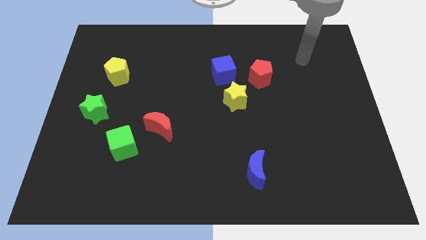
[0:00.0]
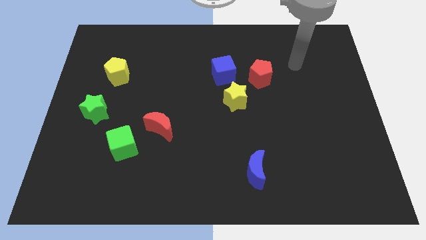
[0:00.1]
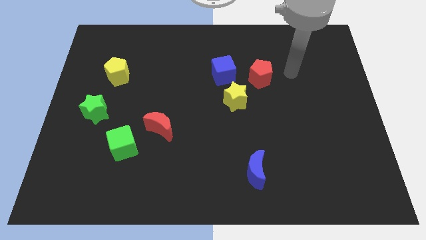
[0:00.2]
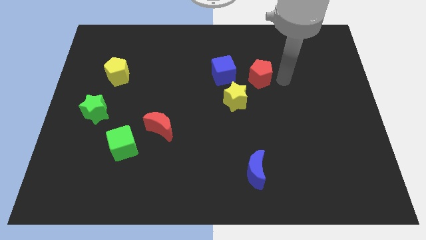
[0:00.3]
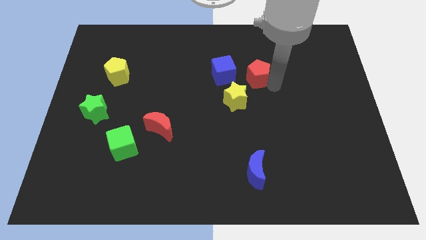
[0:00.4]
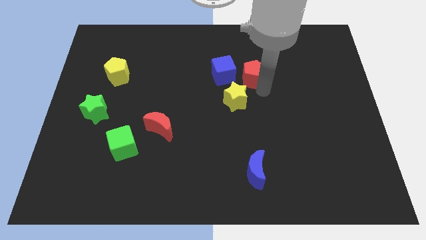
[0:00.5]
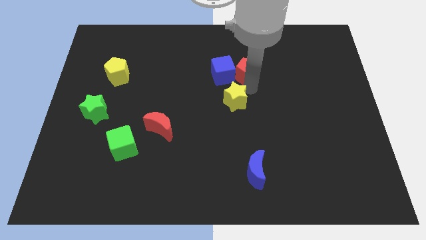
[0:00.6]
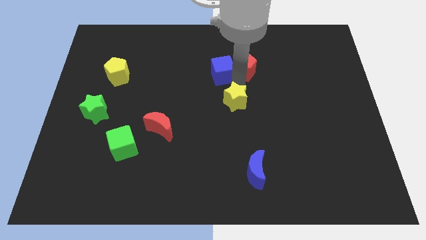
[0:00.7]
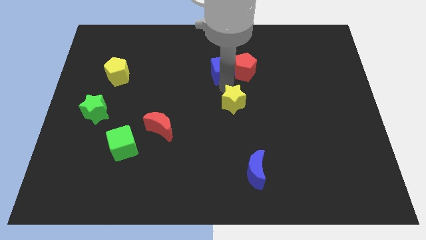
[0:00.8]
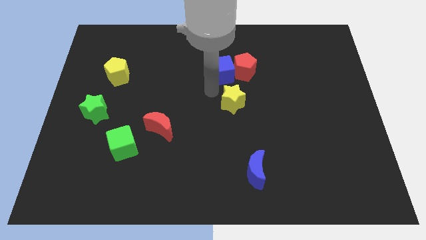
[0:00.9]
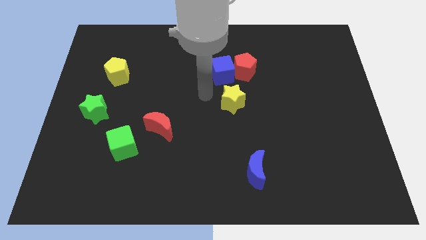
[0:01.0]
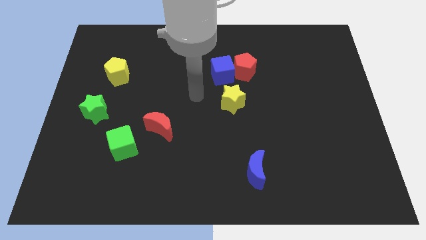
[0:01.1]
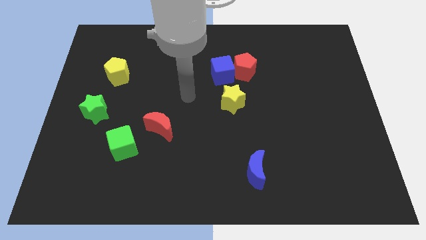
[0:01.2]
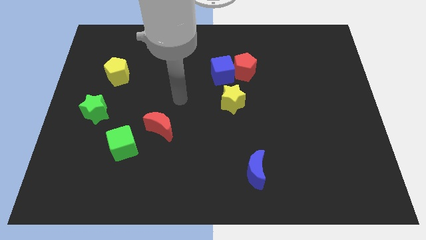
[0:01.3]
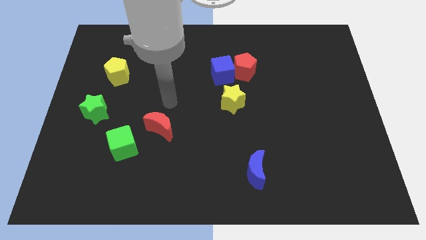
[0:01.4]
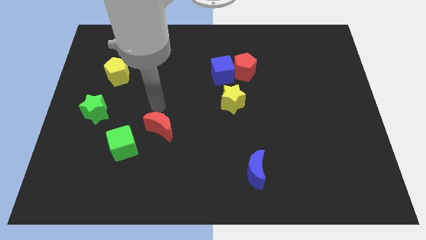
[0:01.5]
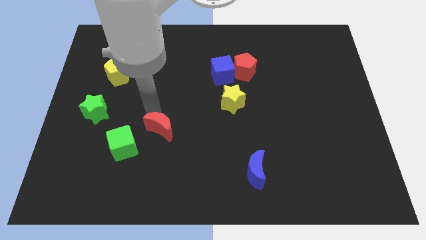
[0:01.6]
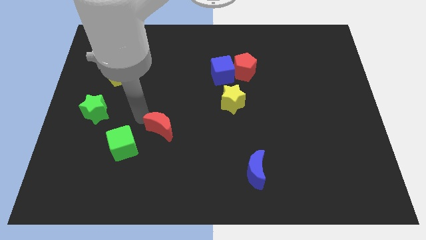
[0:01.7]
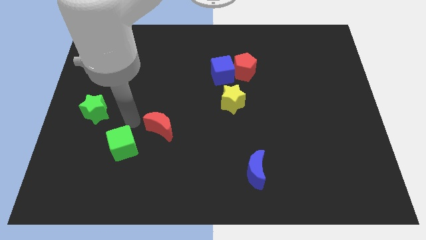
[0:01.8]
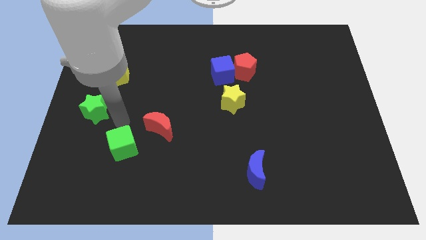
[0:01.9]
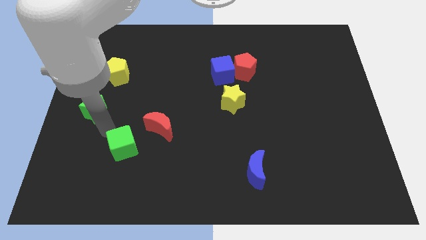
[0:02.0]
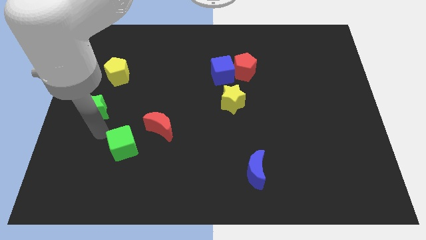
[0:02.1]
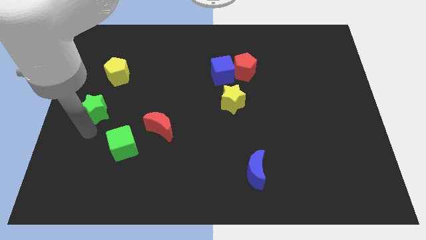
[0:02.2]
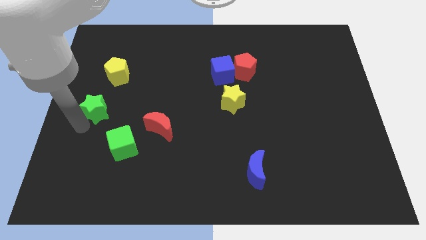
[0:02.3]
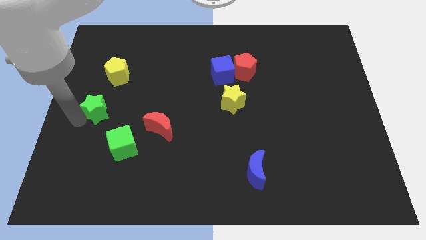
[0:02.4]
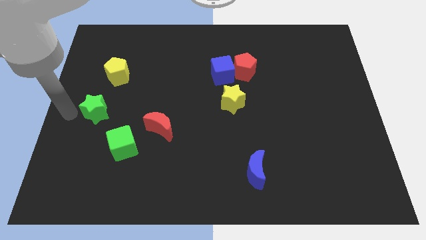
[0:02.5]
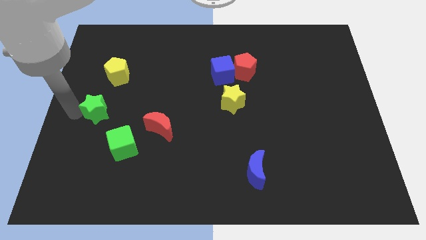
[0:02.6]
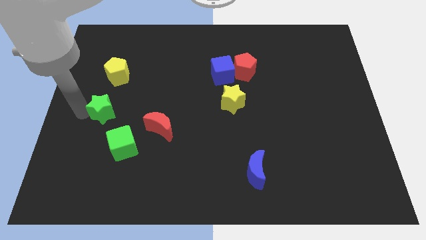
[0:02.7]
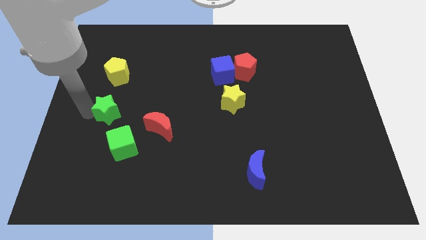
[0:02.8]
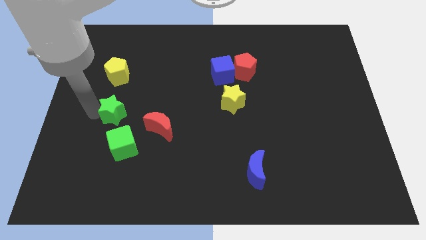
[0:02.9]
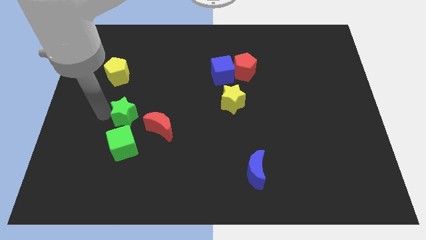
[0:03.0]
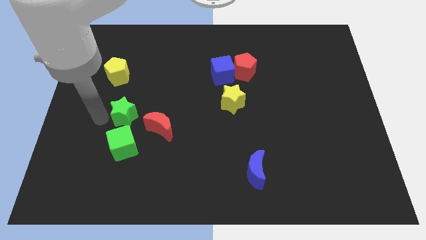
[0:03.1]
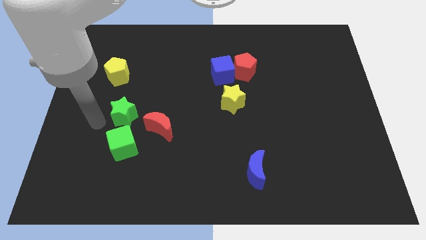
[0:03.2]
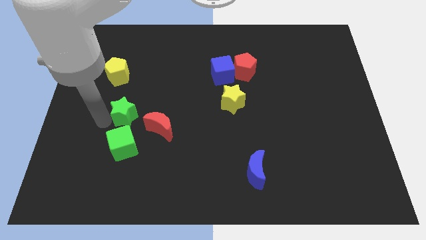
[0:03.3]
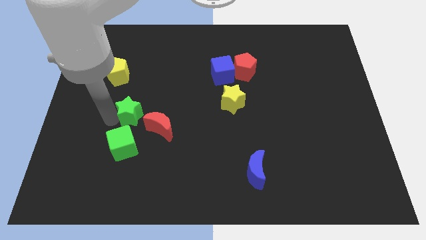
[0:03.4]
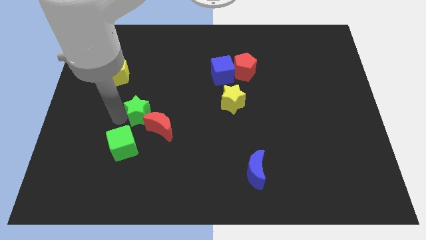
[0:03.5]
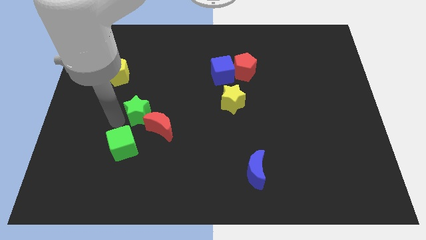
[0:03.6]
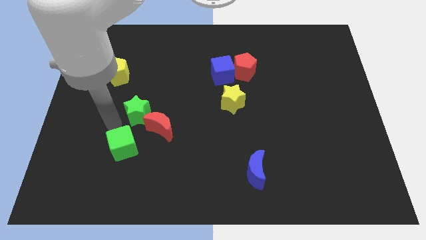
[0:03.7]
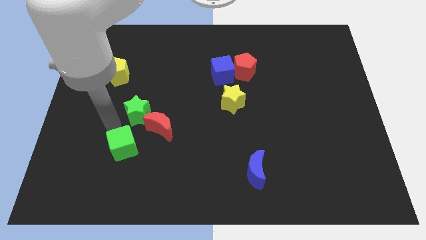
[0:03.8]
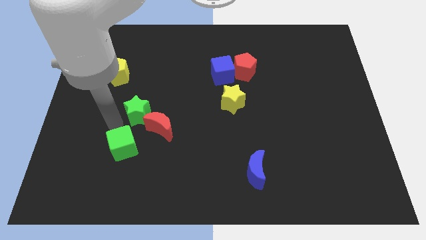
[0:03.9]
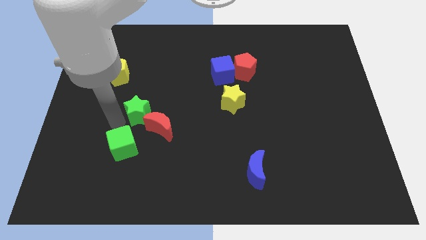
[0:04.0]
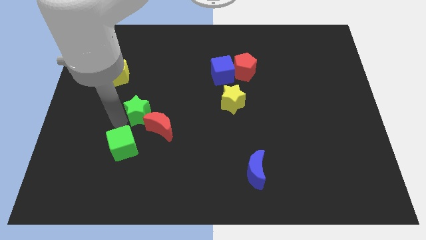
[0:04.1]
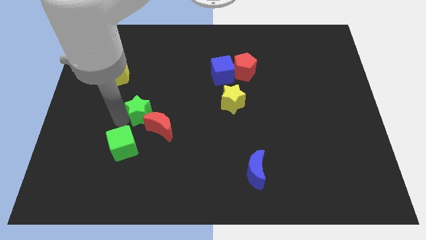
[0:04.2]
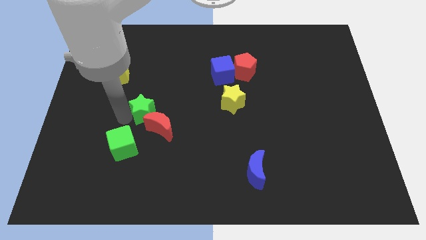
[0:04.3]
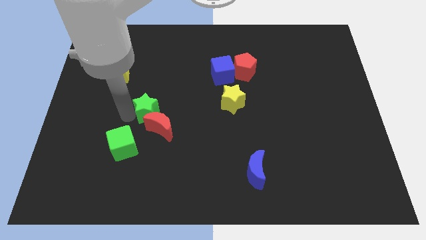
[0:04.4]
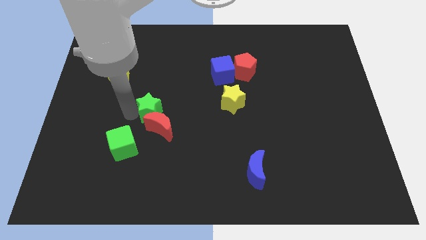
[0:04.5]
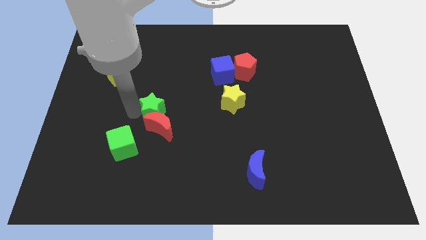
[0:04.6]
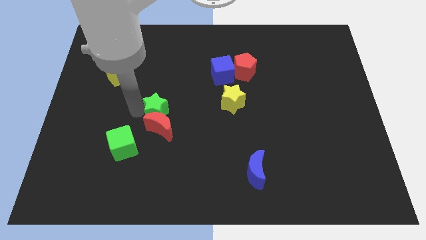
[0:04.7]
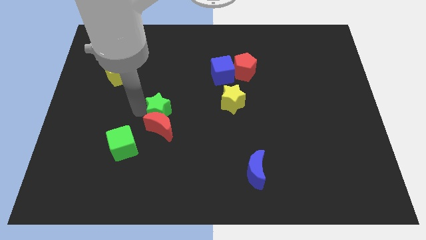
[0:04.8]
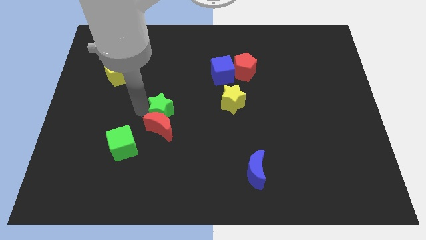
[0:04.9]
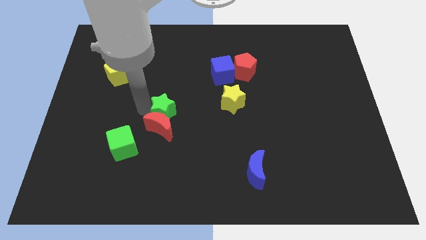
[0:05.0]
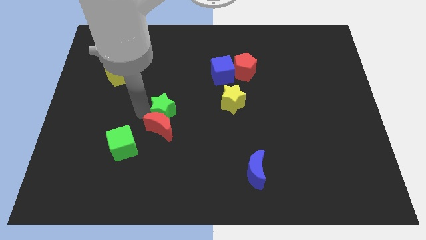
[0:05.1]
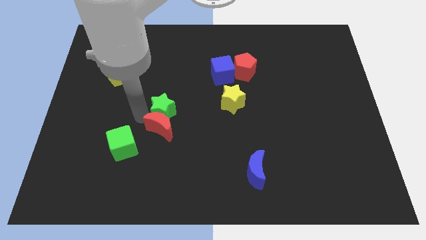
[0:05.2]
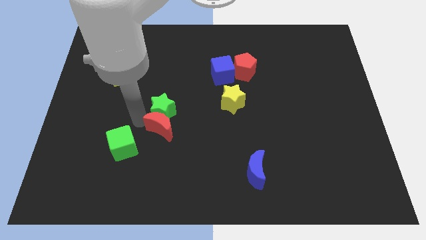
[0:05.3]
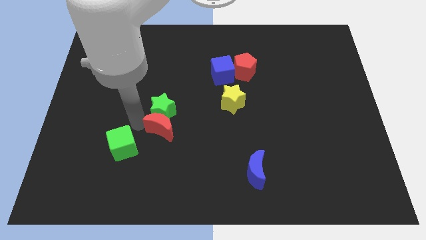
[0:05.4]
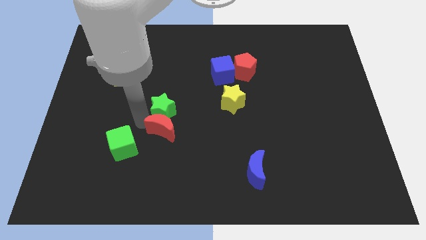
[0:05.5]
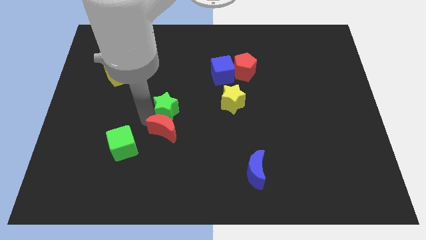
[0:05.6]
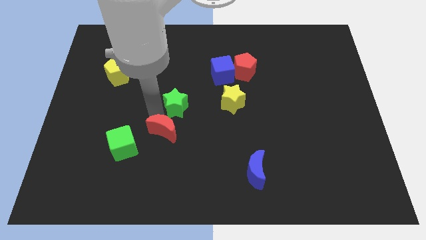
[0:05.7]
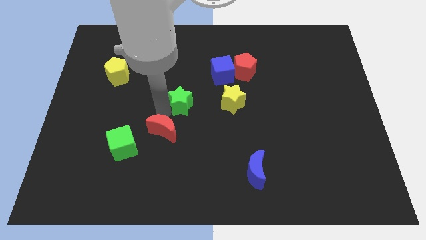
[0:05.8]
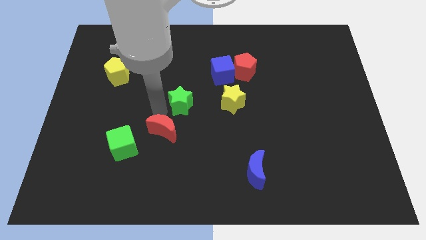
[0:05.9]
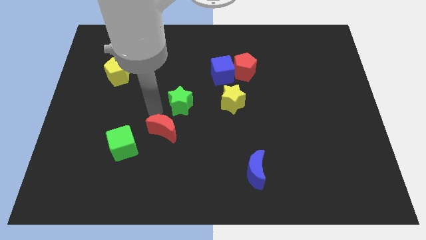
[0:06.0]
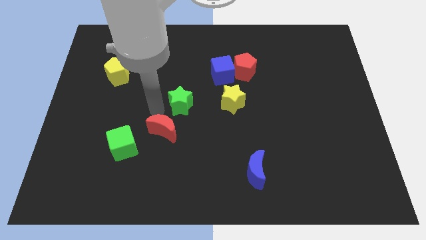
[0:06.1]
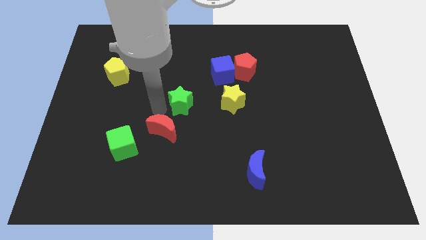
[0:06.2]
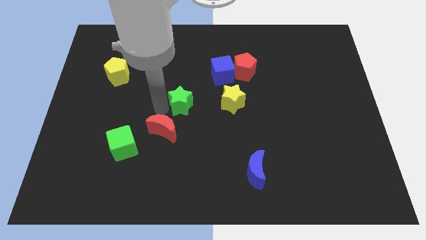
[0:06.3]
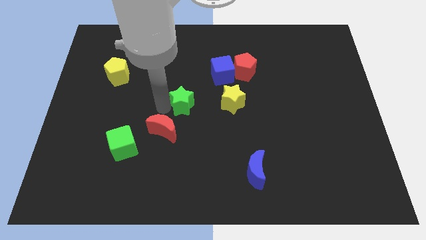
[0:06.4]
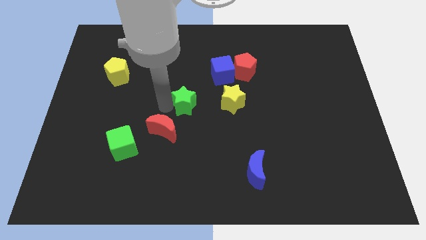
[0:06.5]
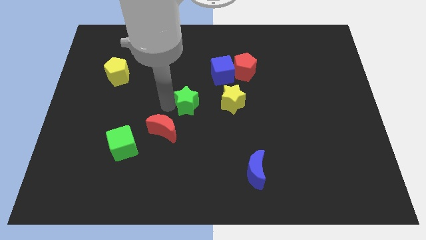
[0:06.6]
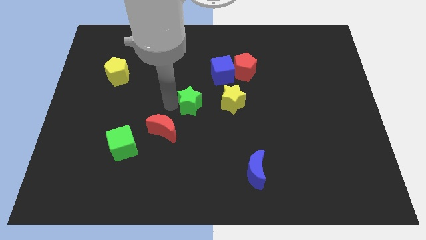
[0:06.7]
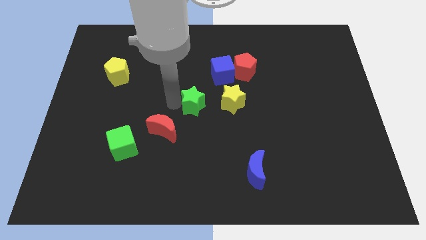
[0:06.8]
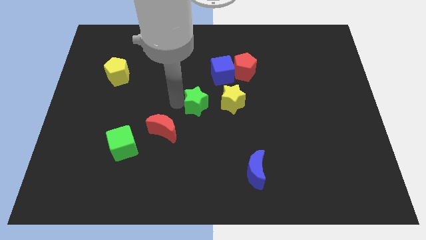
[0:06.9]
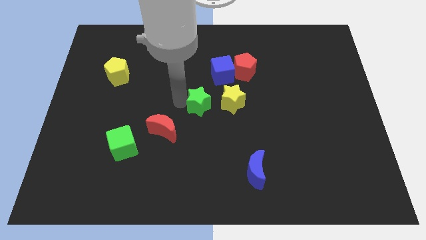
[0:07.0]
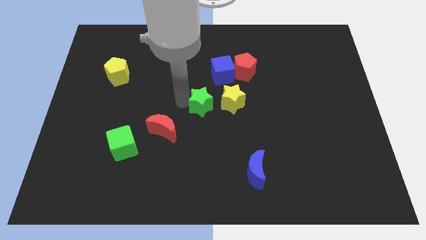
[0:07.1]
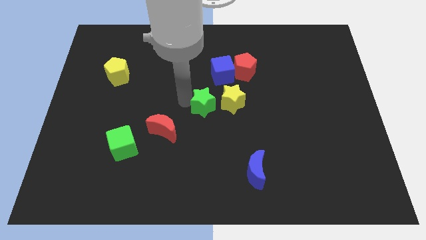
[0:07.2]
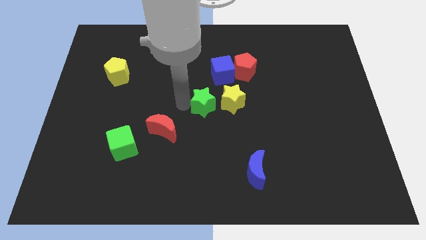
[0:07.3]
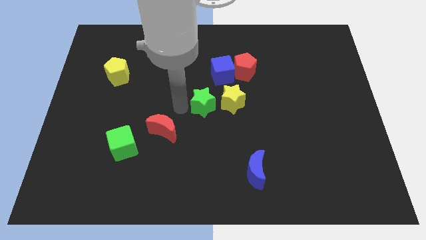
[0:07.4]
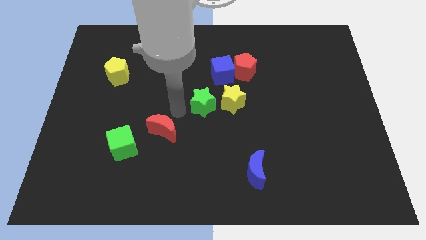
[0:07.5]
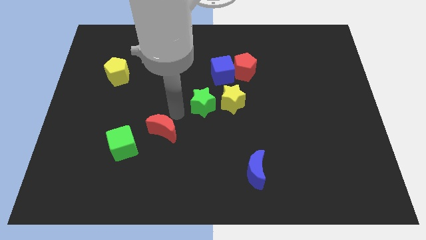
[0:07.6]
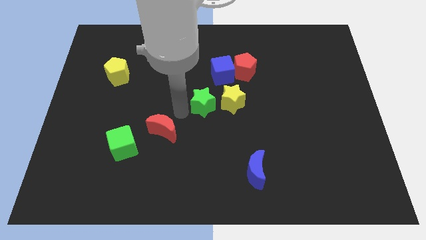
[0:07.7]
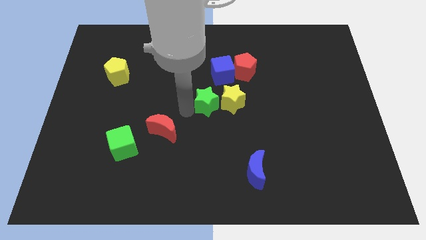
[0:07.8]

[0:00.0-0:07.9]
put the green star next to the yellow star
